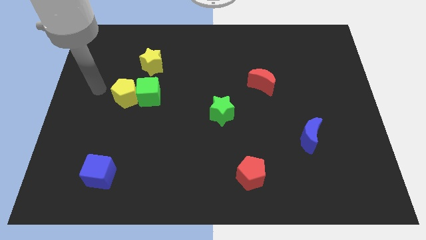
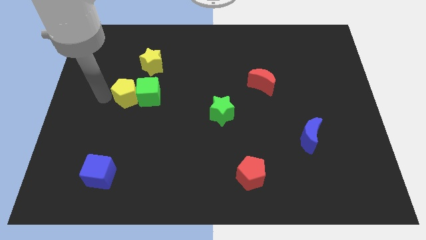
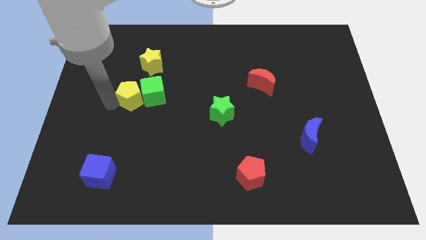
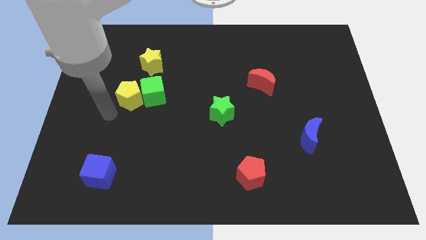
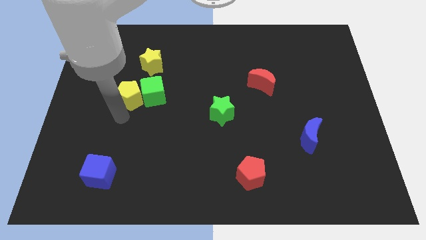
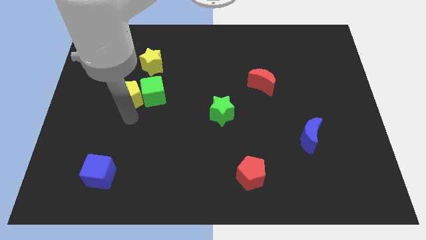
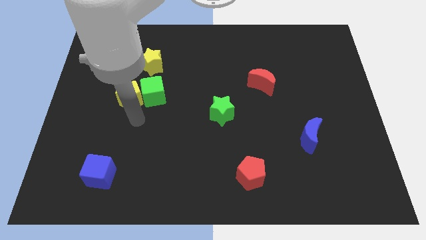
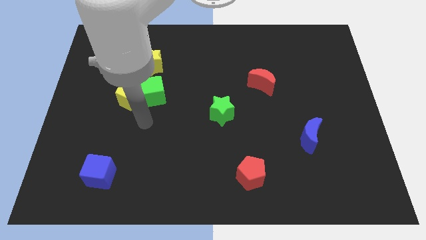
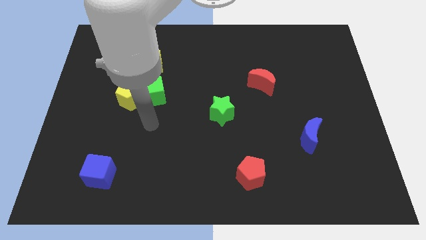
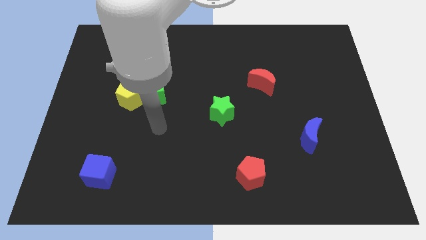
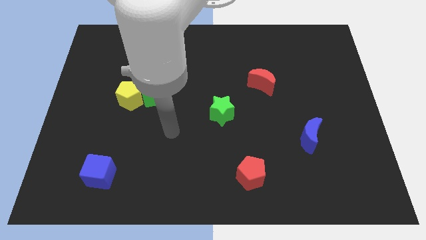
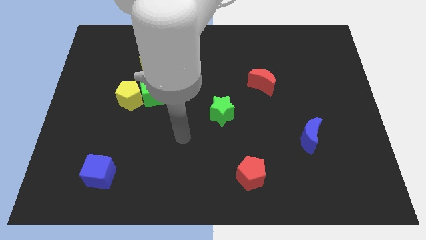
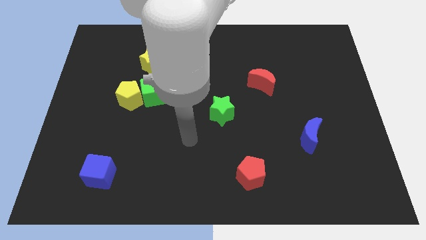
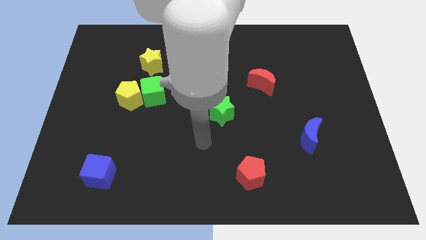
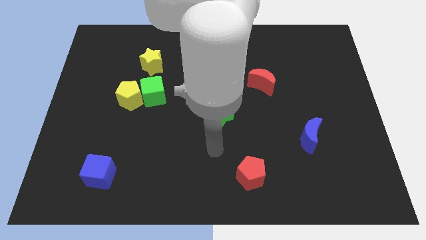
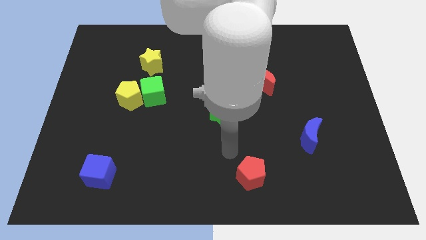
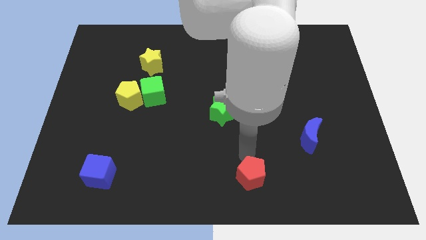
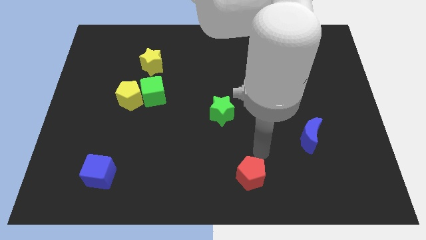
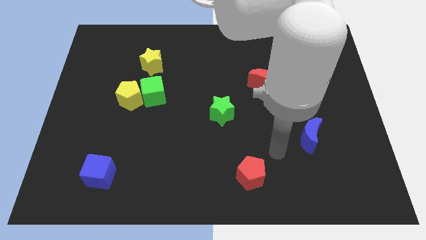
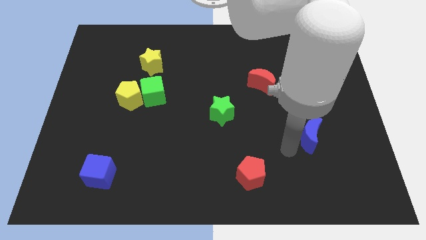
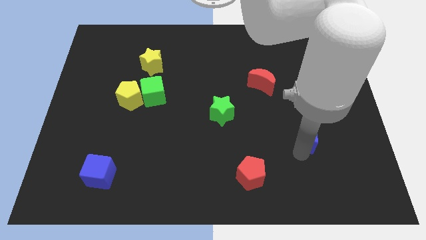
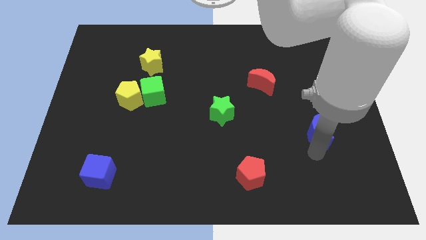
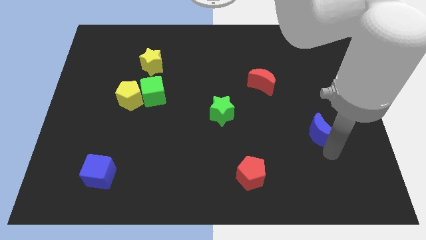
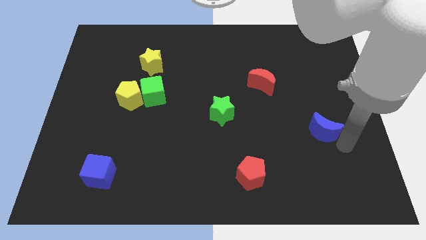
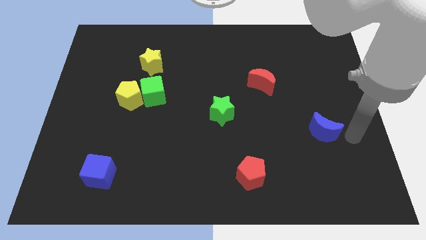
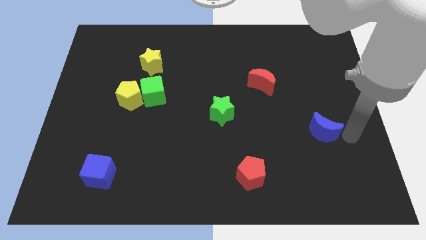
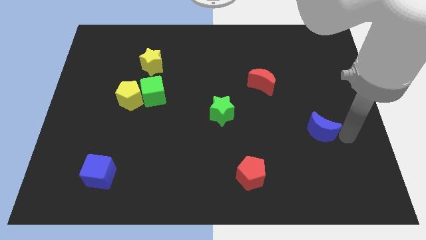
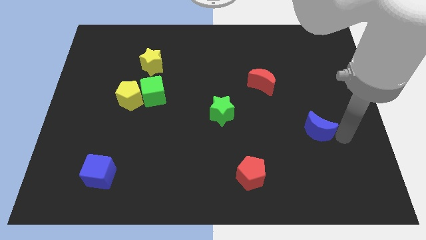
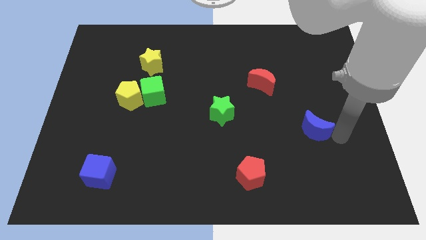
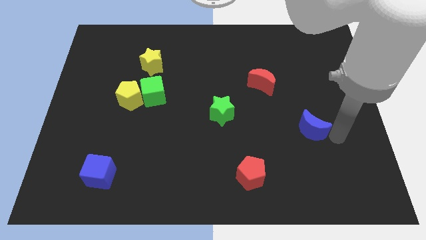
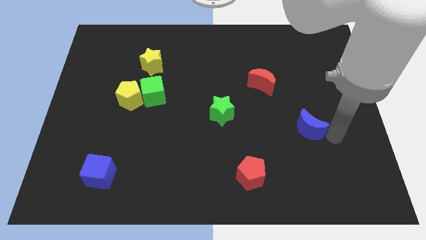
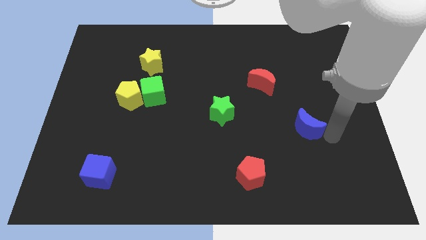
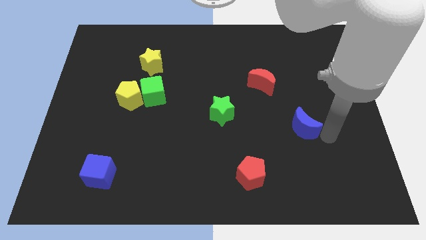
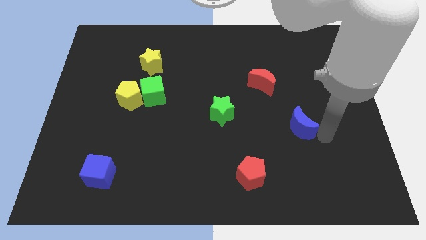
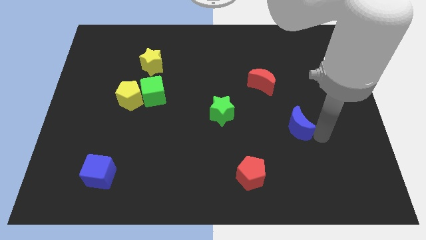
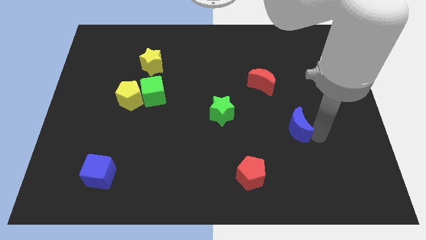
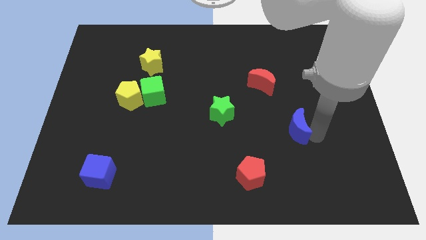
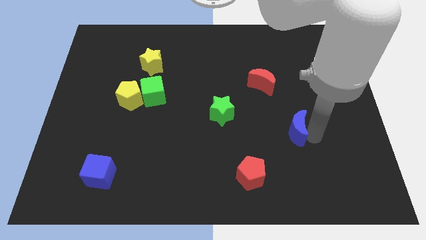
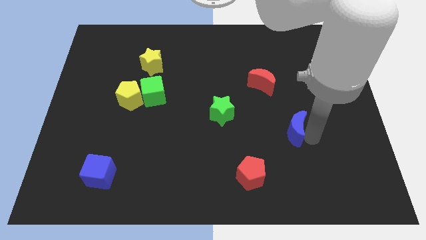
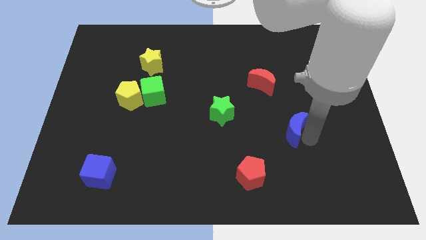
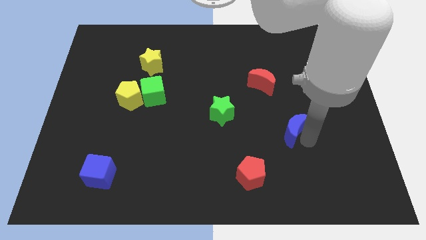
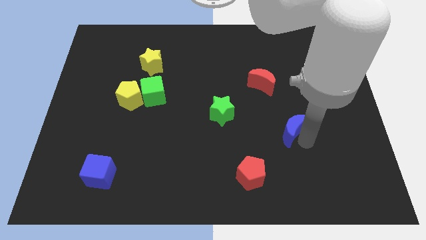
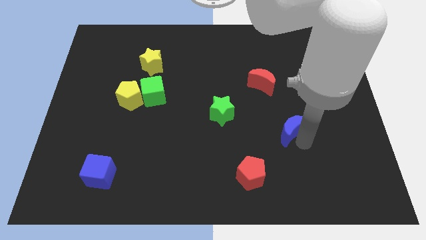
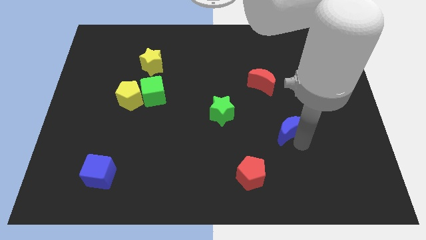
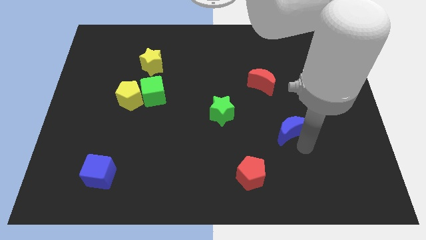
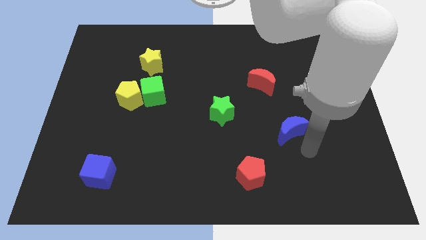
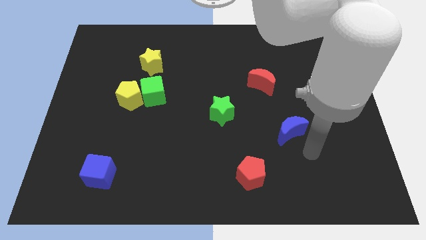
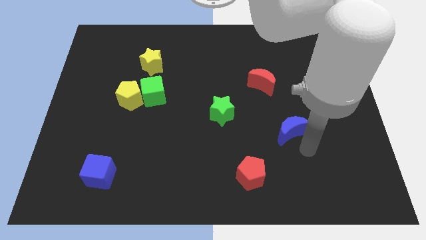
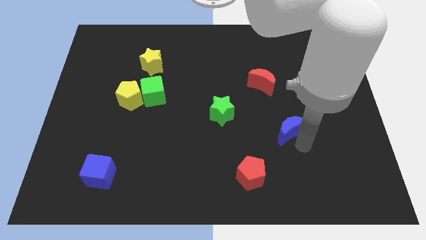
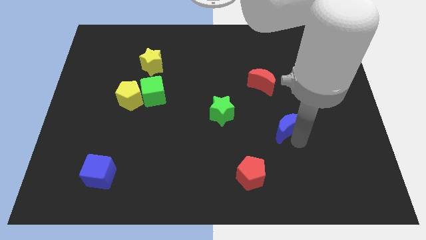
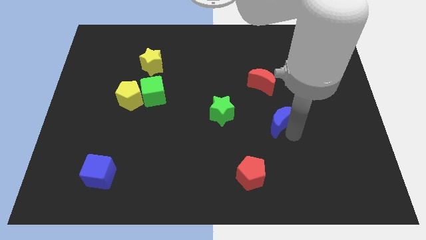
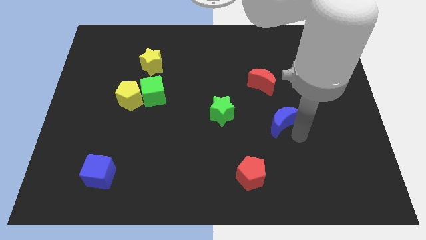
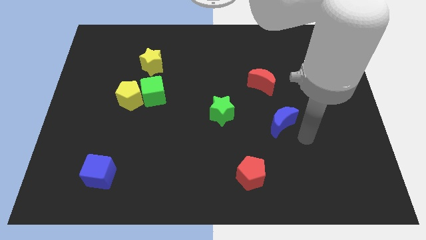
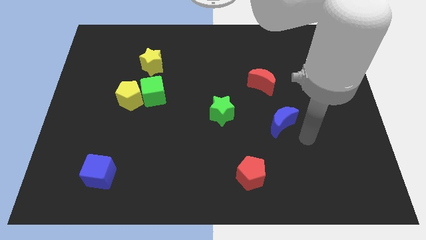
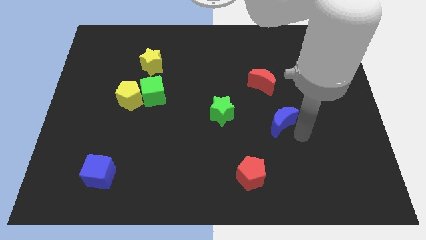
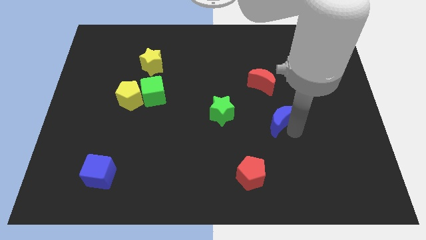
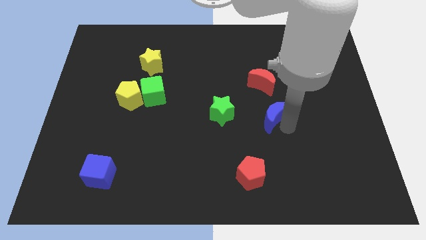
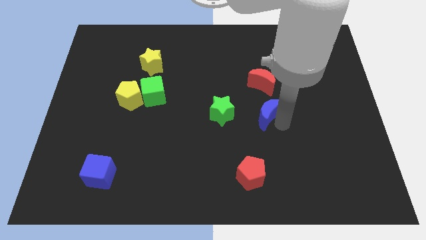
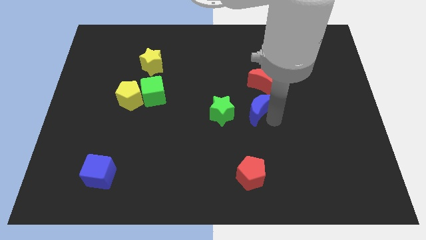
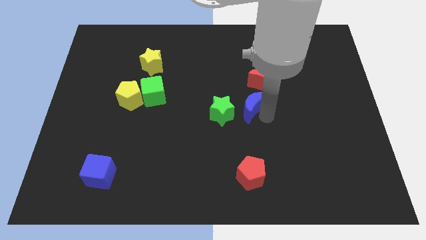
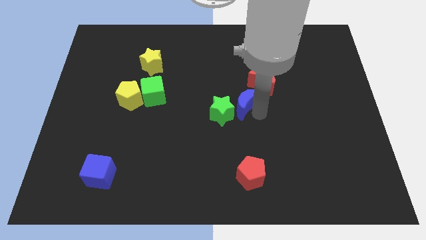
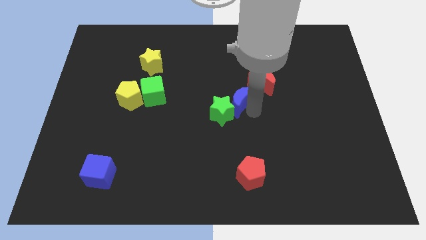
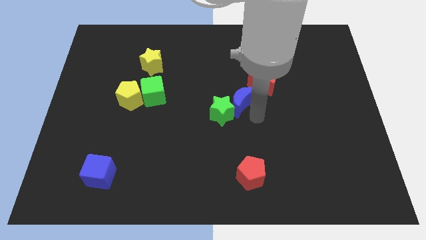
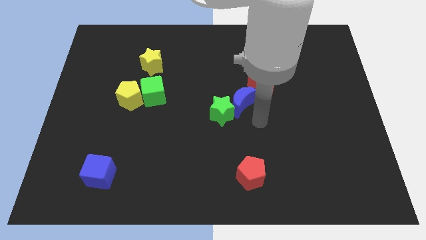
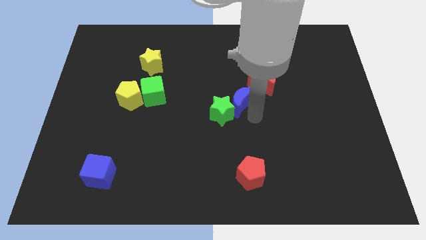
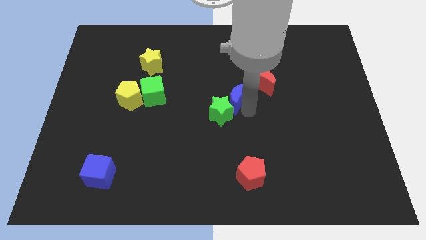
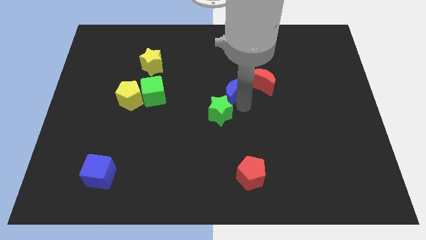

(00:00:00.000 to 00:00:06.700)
put the blue moon to the left side of the red moon
